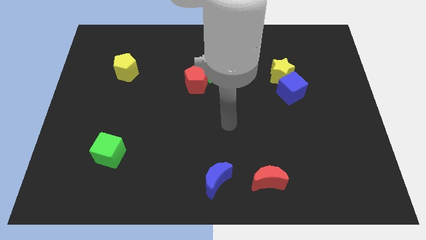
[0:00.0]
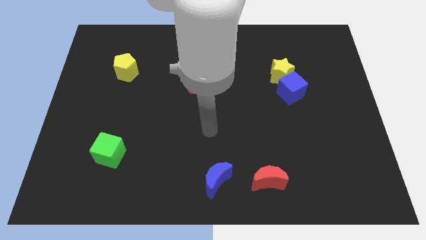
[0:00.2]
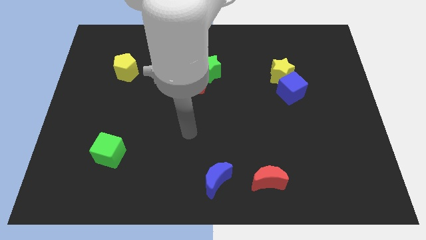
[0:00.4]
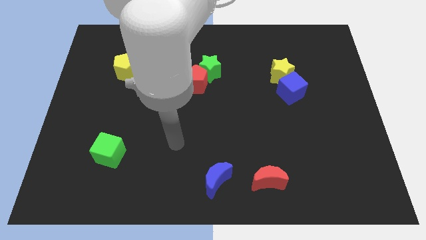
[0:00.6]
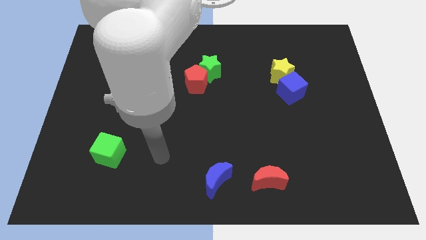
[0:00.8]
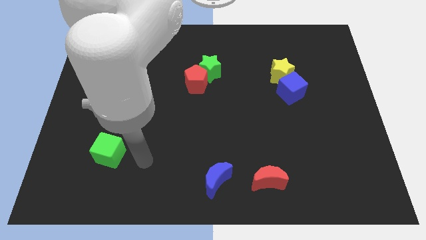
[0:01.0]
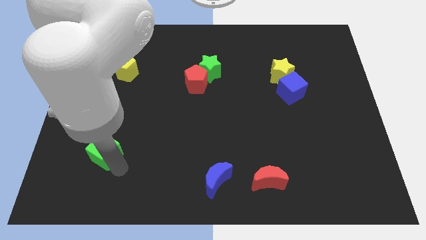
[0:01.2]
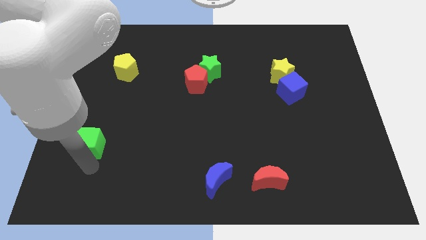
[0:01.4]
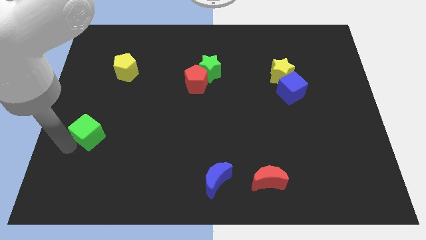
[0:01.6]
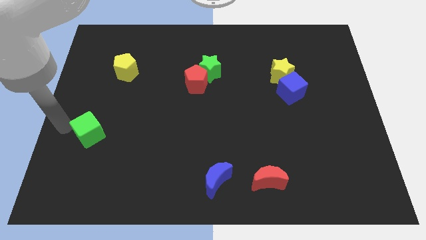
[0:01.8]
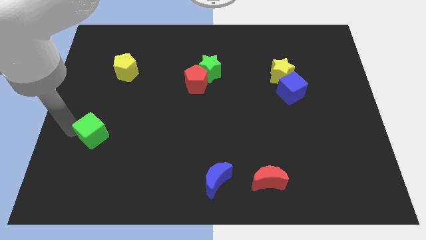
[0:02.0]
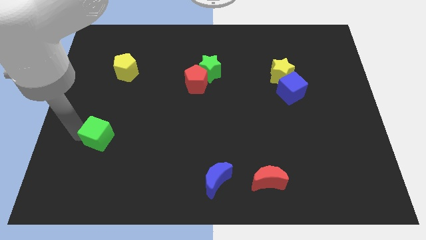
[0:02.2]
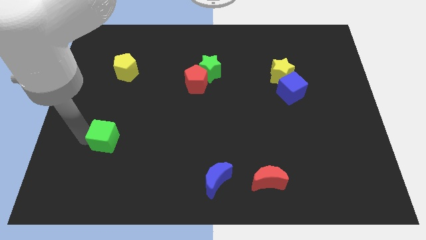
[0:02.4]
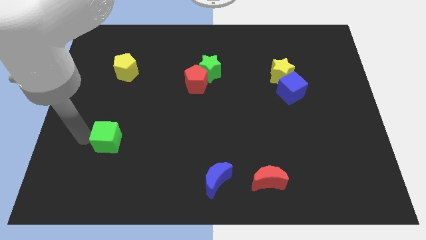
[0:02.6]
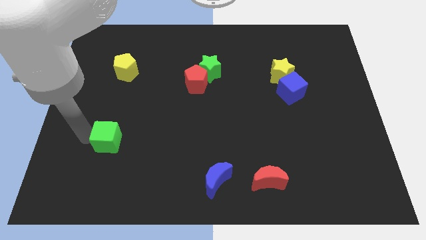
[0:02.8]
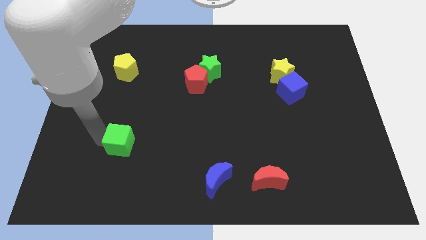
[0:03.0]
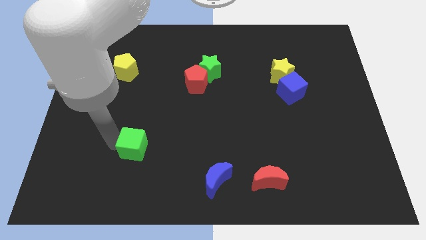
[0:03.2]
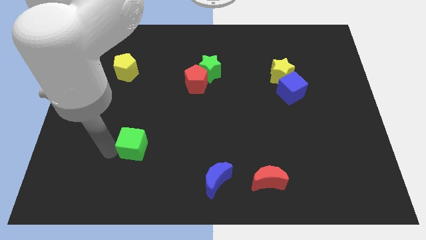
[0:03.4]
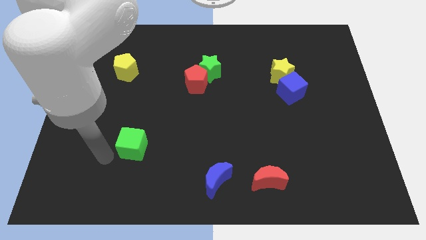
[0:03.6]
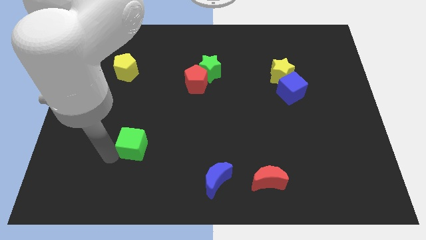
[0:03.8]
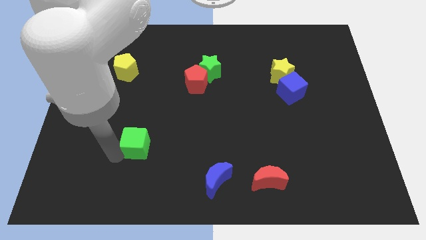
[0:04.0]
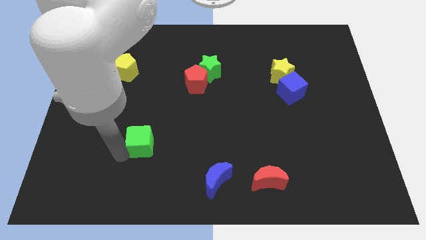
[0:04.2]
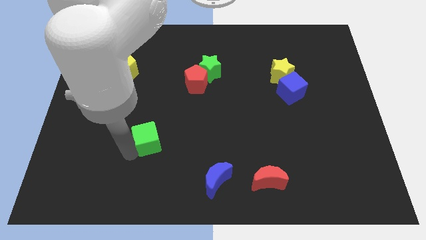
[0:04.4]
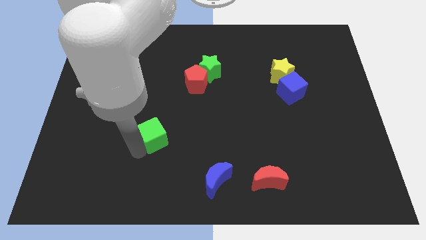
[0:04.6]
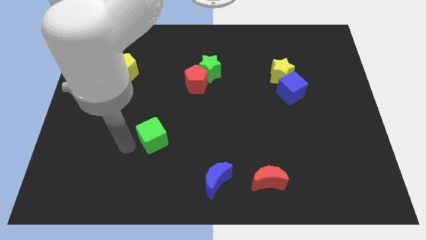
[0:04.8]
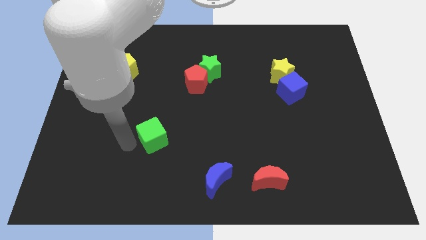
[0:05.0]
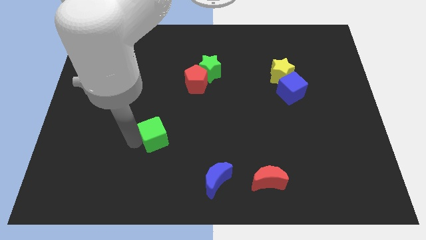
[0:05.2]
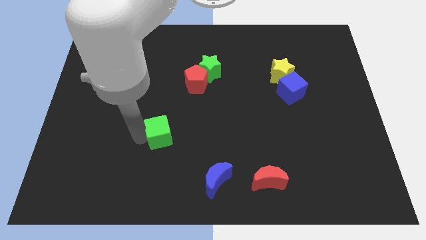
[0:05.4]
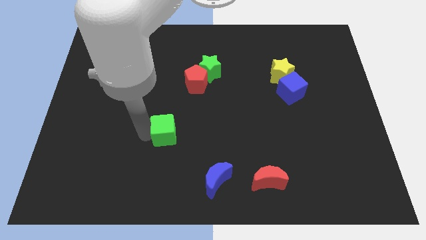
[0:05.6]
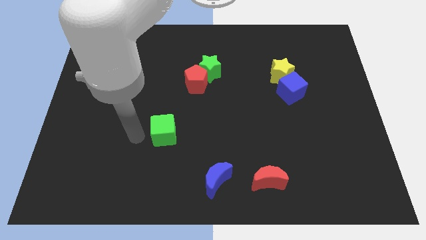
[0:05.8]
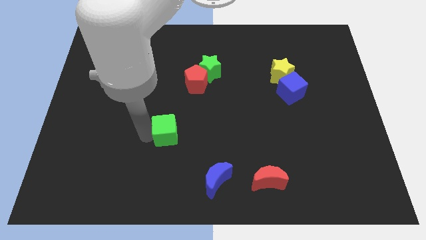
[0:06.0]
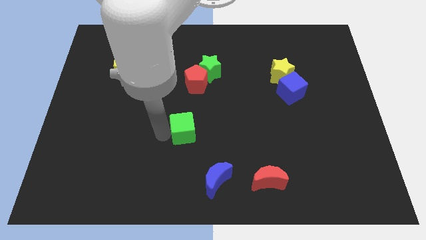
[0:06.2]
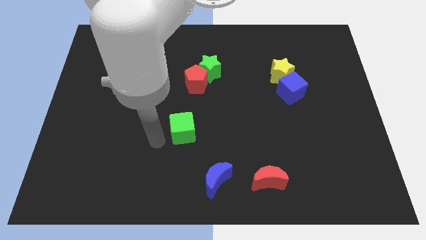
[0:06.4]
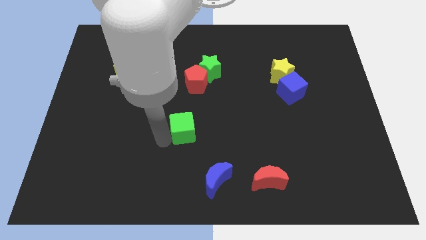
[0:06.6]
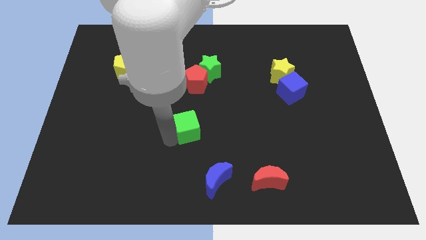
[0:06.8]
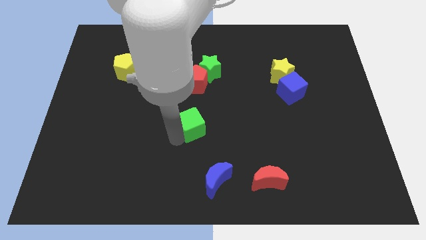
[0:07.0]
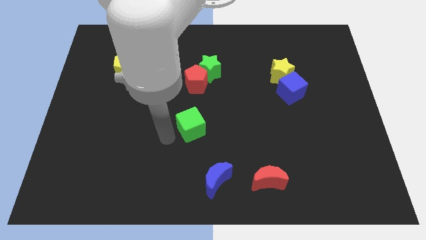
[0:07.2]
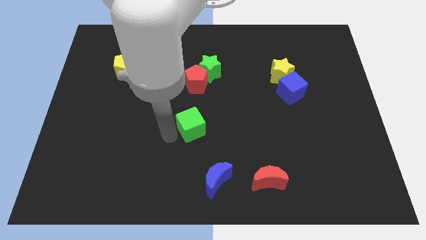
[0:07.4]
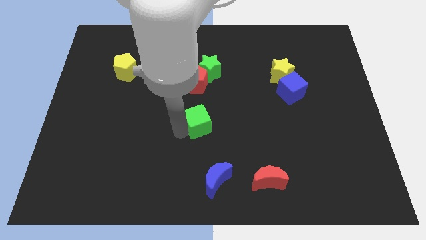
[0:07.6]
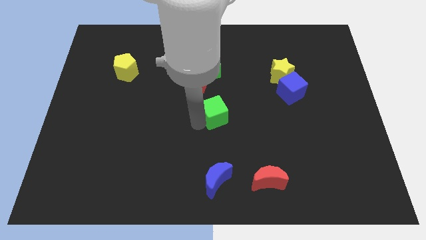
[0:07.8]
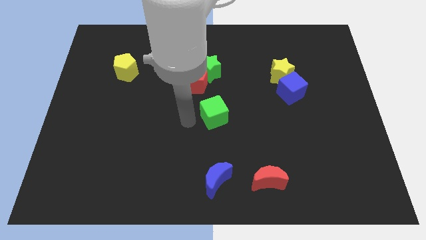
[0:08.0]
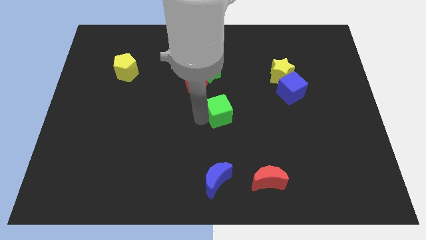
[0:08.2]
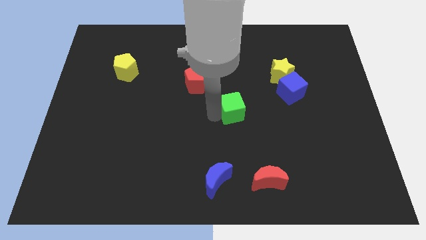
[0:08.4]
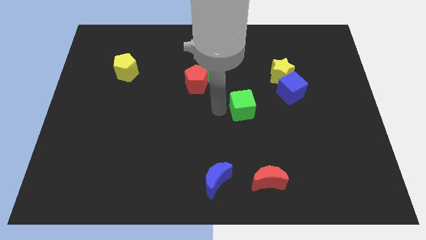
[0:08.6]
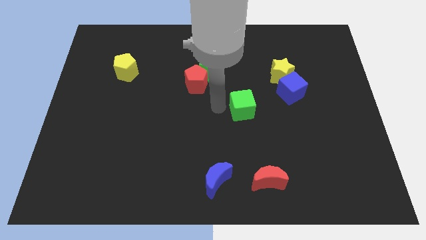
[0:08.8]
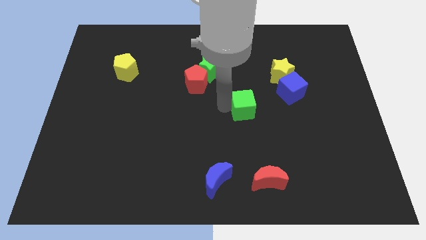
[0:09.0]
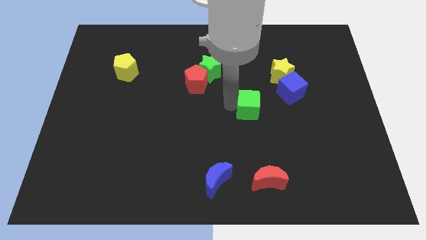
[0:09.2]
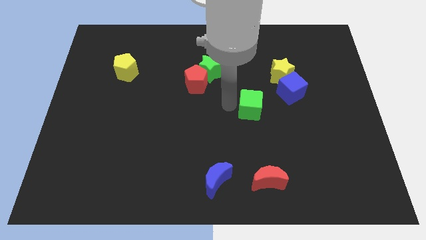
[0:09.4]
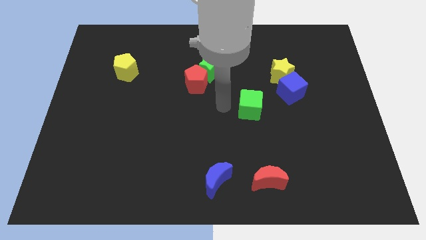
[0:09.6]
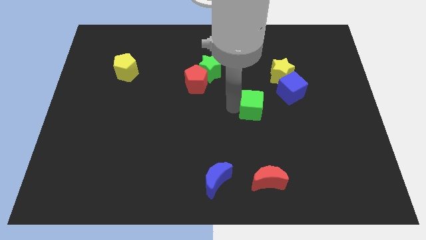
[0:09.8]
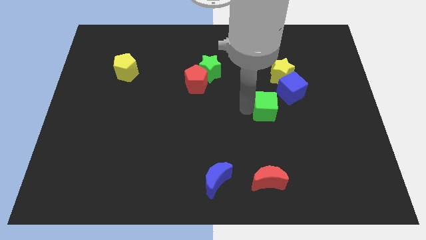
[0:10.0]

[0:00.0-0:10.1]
push the green cube to the bottom of the yellow star

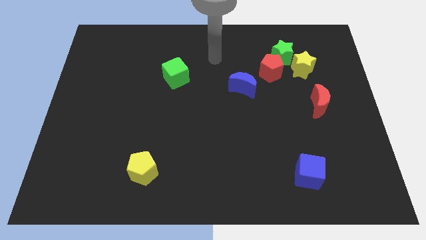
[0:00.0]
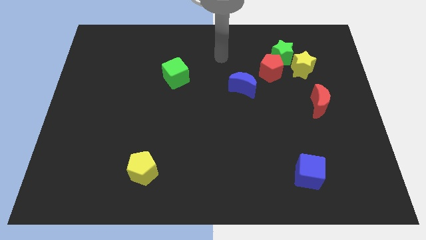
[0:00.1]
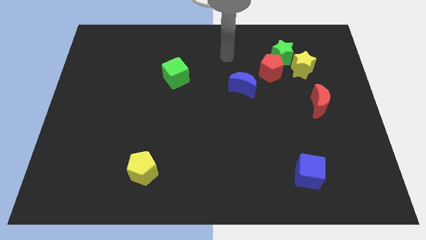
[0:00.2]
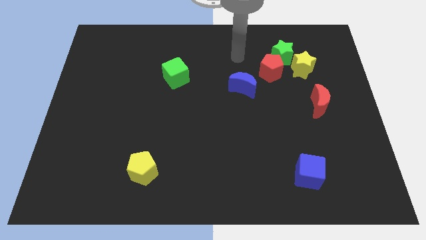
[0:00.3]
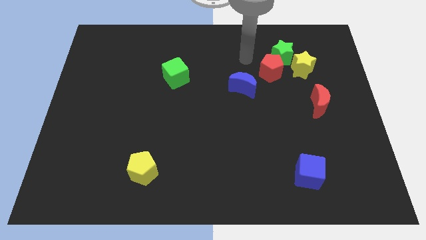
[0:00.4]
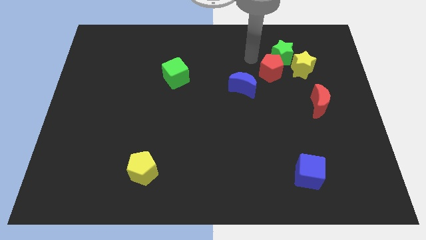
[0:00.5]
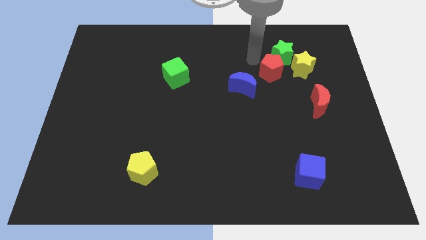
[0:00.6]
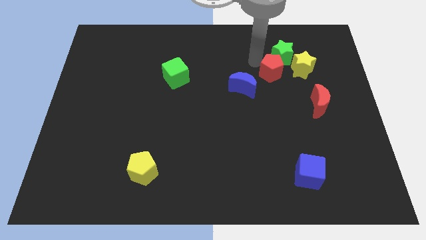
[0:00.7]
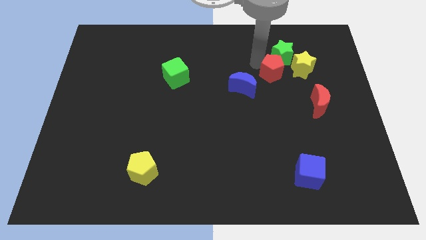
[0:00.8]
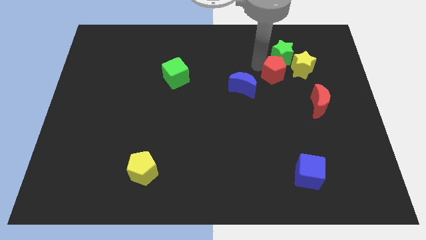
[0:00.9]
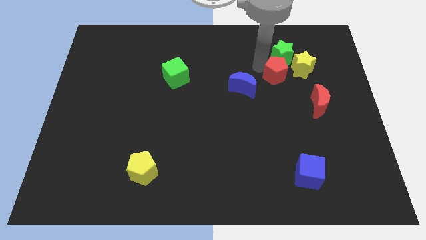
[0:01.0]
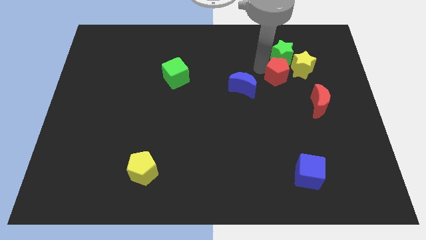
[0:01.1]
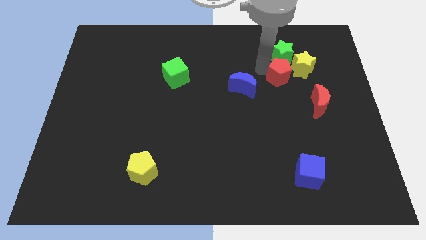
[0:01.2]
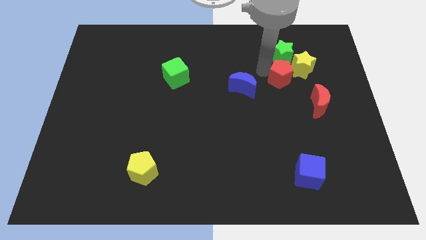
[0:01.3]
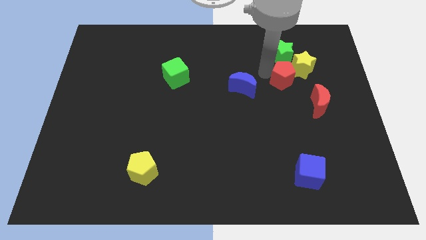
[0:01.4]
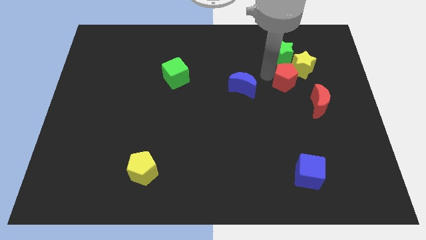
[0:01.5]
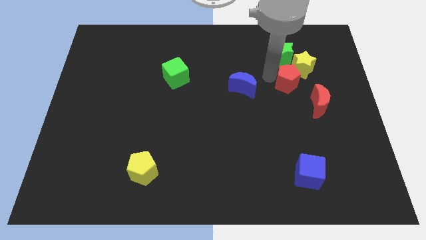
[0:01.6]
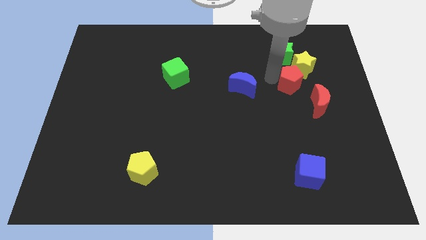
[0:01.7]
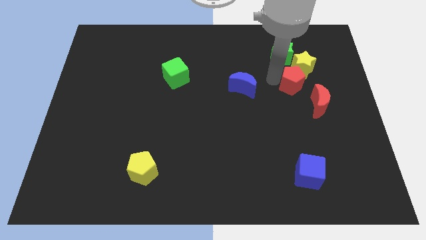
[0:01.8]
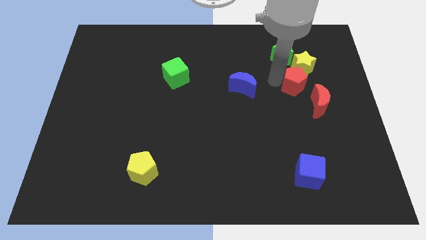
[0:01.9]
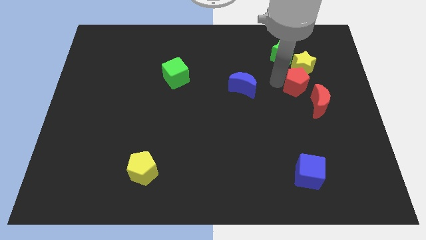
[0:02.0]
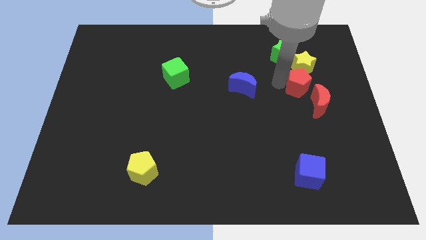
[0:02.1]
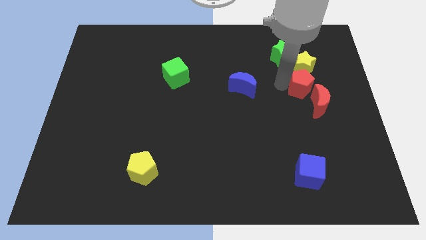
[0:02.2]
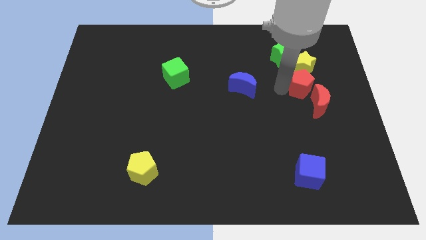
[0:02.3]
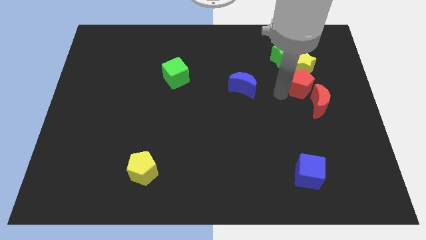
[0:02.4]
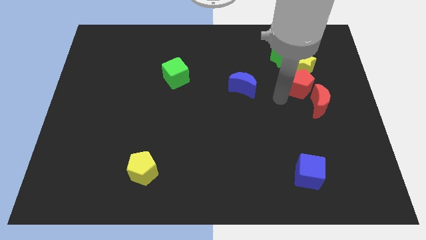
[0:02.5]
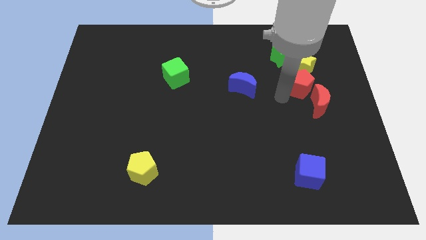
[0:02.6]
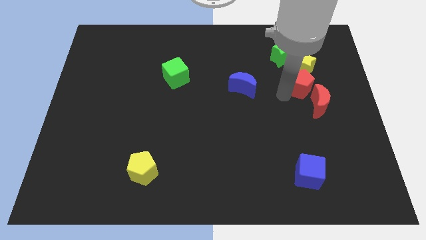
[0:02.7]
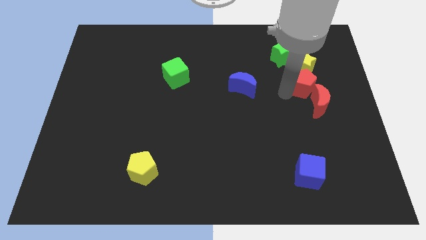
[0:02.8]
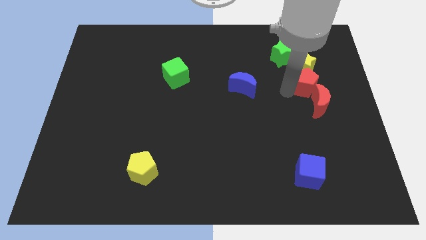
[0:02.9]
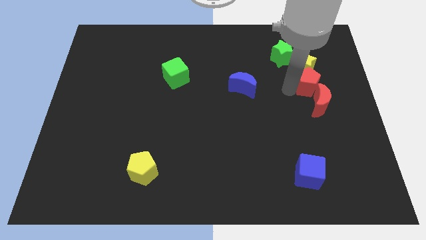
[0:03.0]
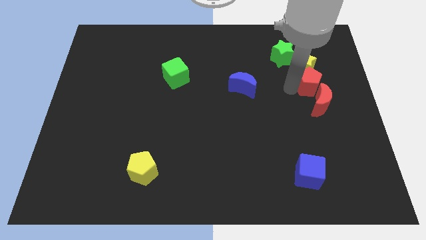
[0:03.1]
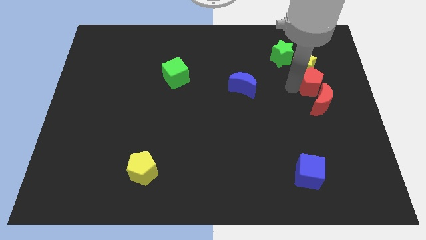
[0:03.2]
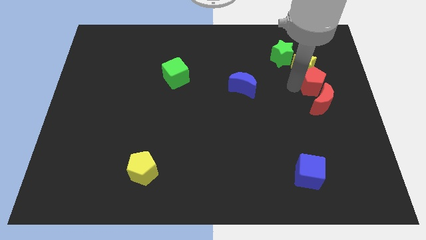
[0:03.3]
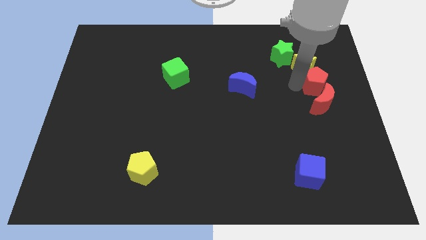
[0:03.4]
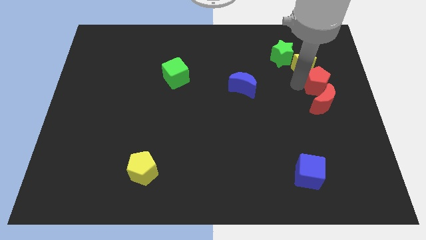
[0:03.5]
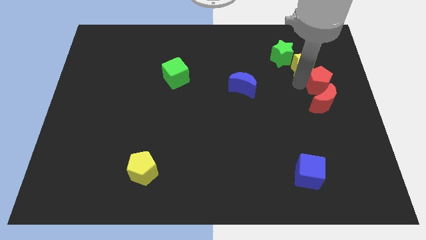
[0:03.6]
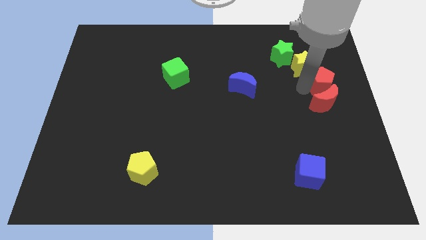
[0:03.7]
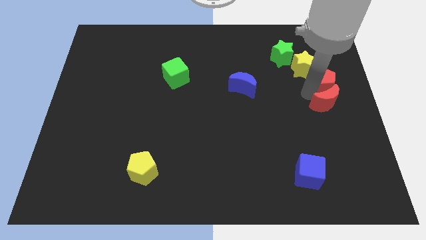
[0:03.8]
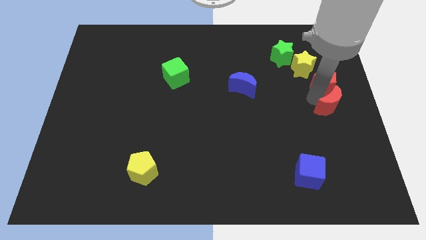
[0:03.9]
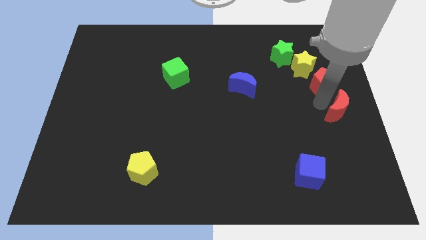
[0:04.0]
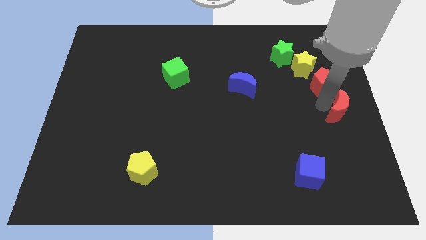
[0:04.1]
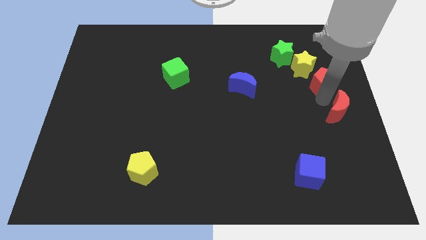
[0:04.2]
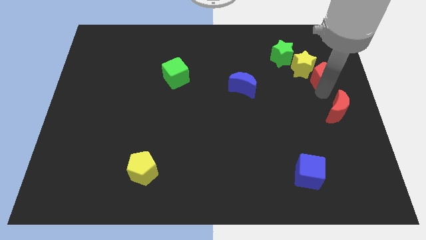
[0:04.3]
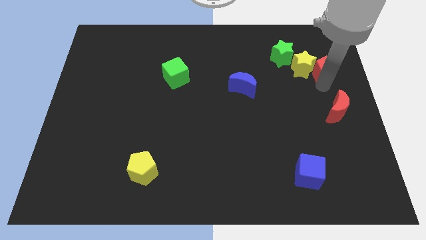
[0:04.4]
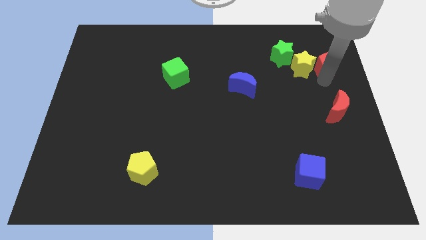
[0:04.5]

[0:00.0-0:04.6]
put the red pentagon to the right side of the green star
